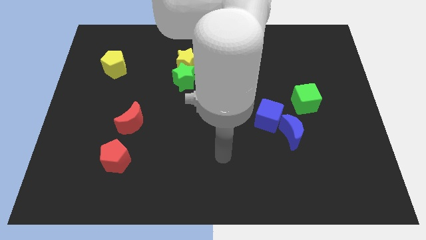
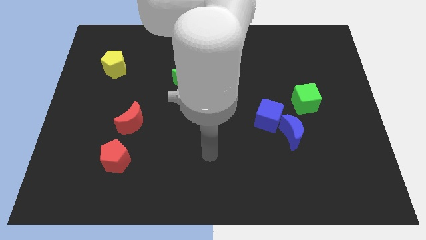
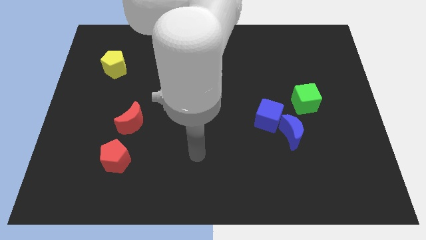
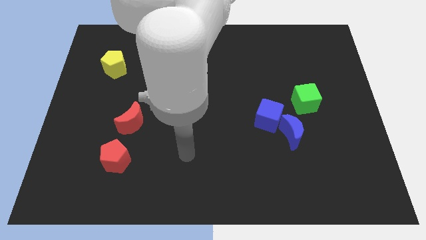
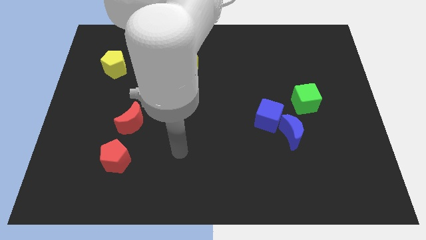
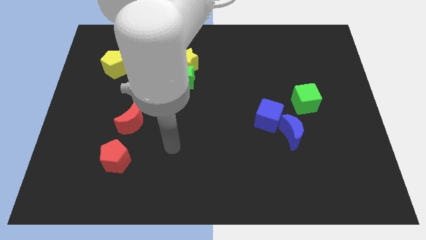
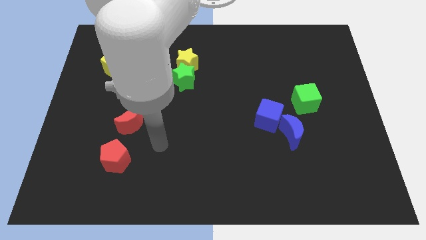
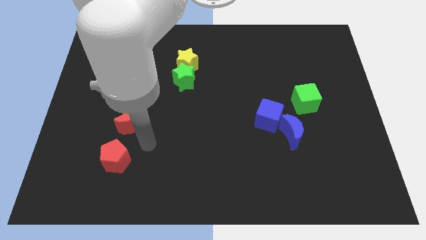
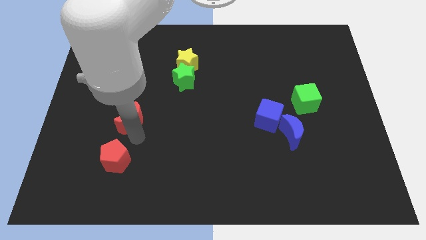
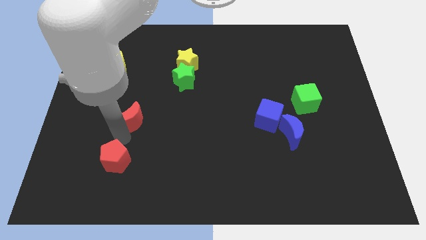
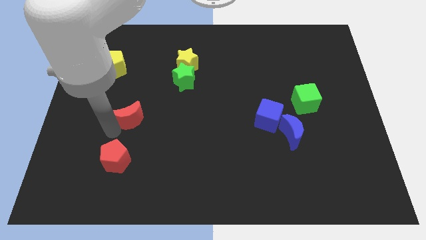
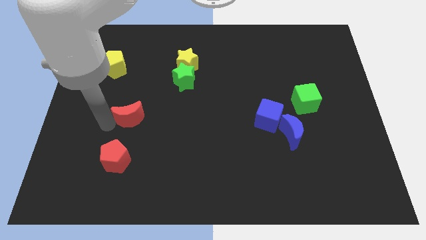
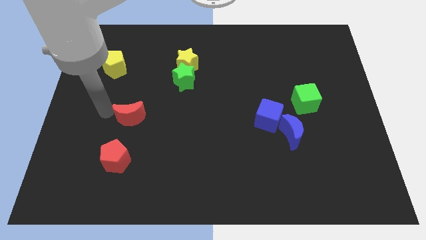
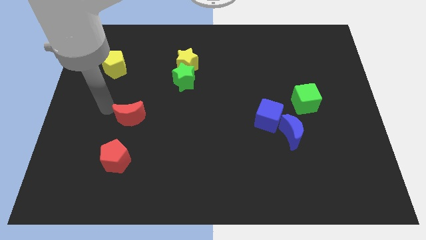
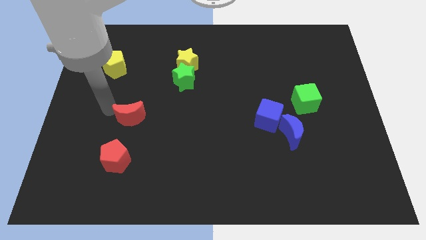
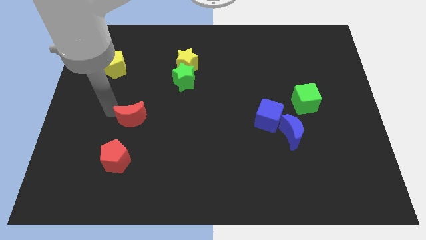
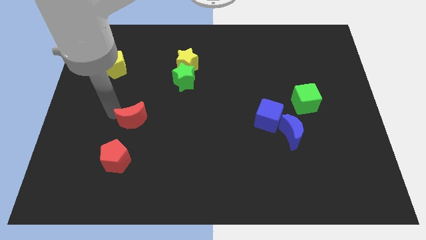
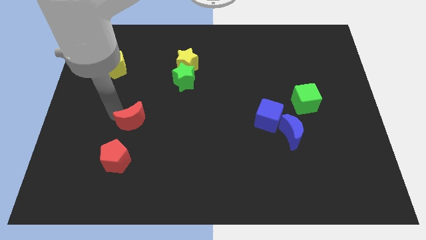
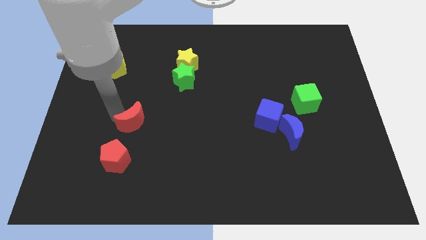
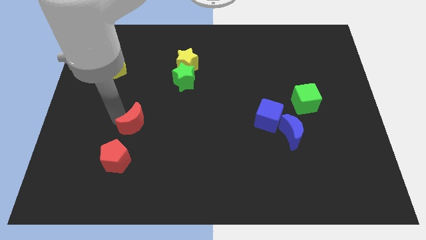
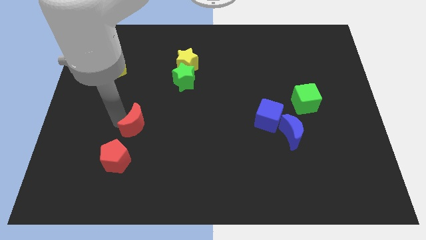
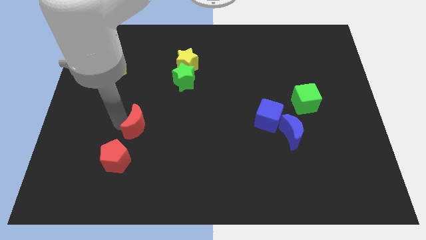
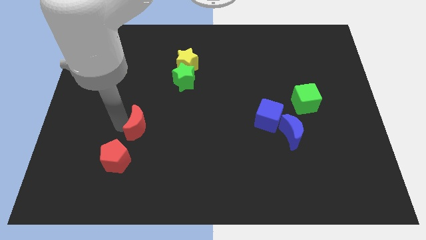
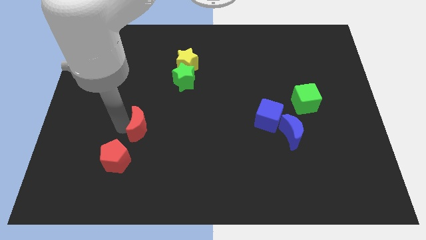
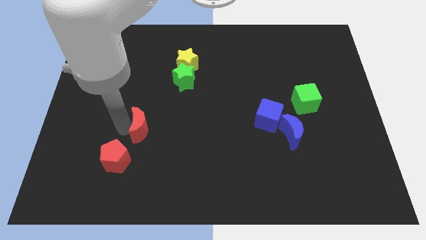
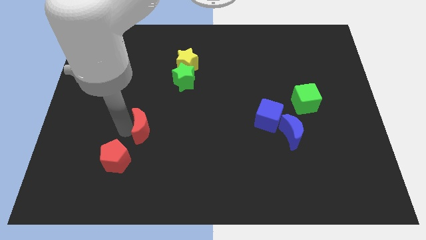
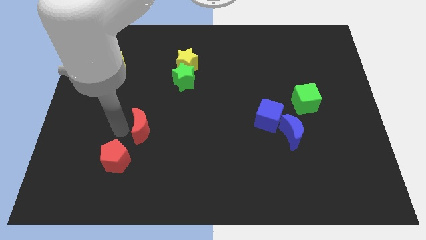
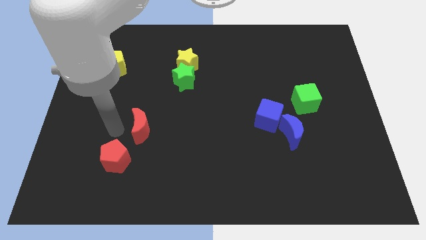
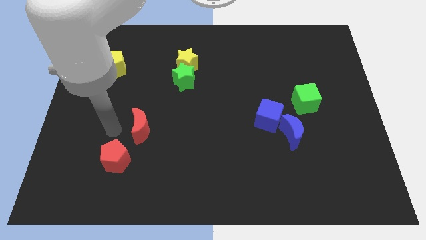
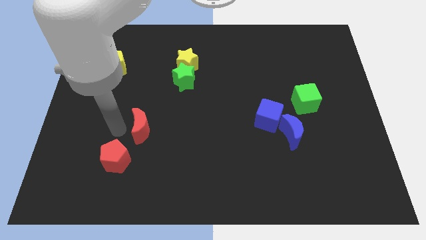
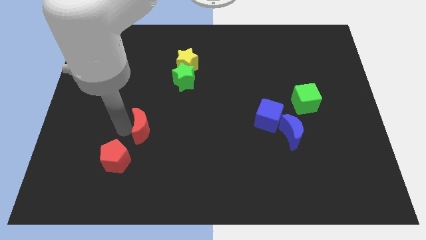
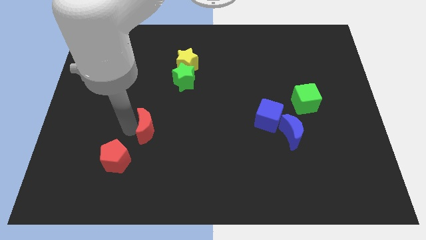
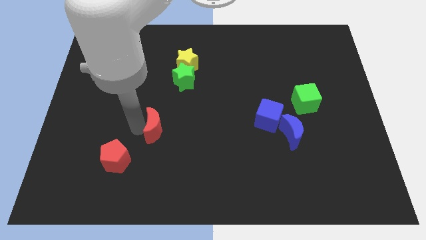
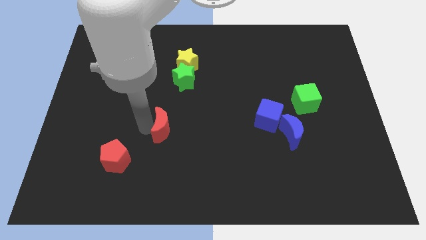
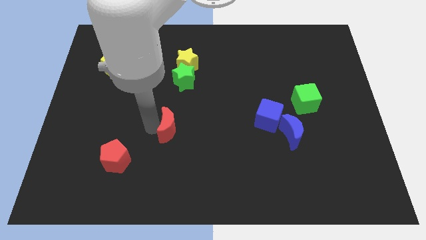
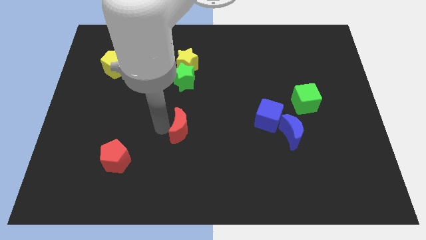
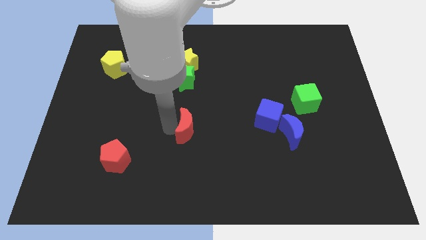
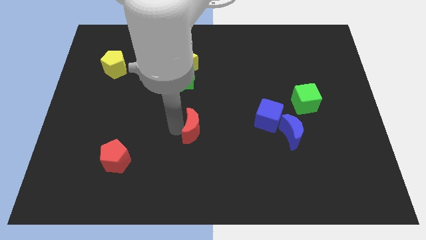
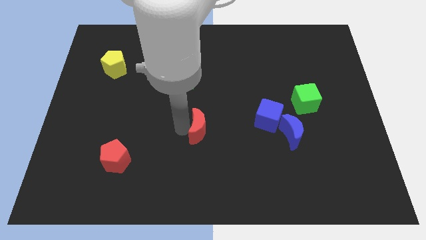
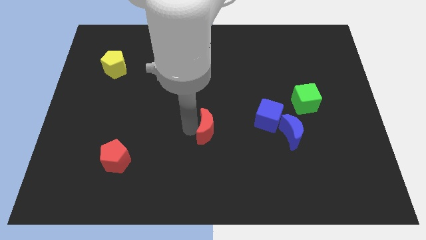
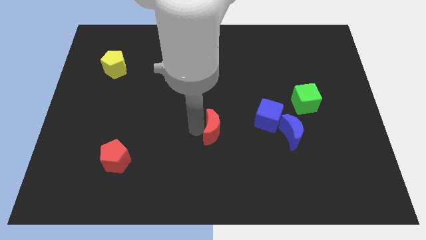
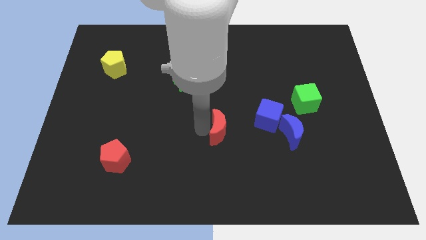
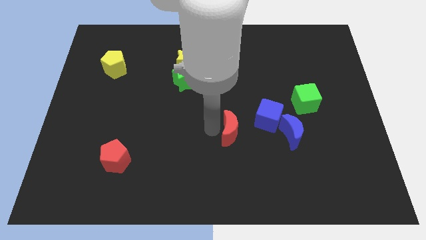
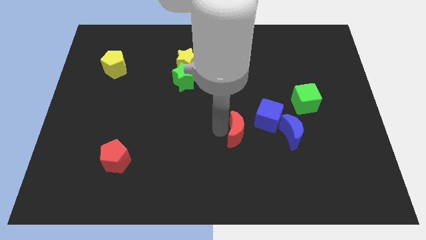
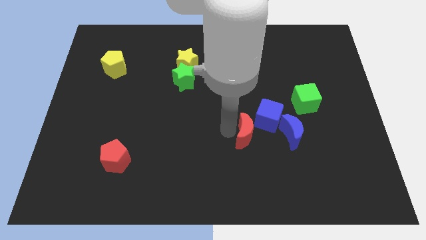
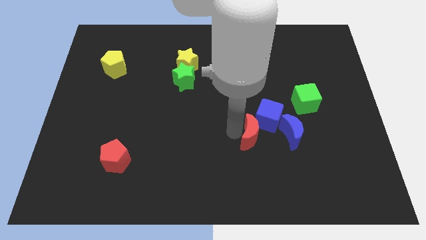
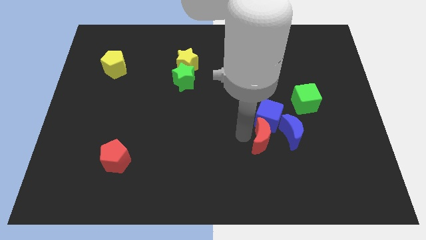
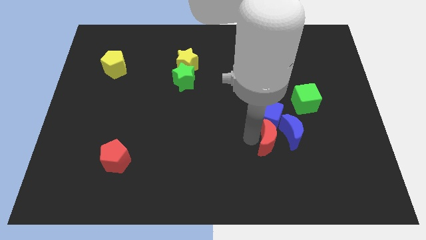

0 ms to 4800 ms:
push the red moon towards the blue moon

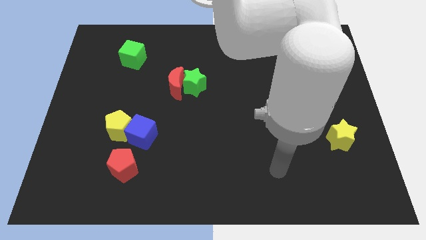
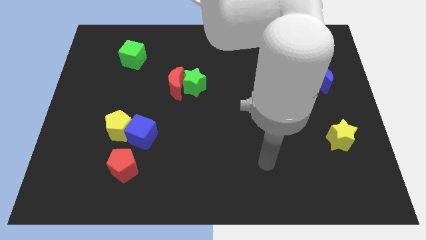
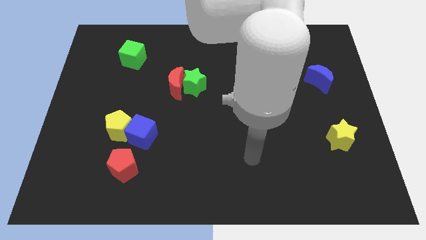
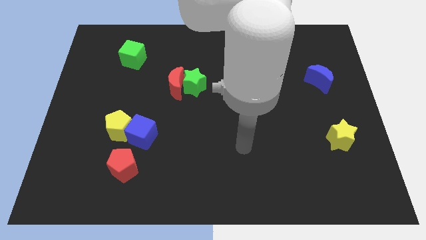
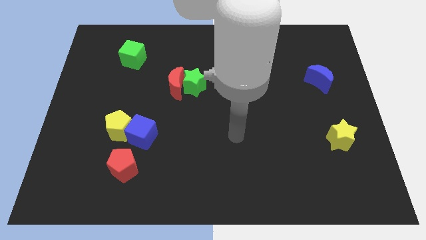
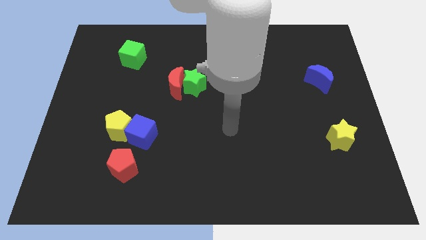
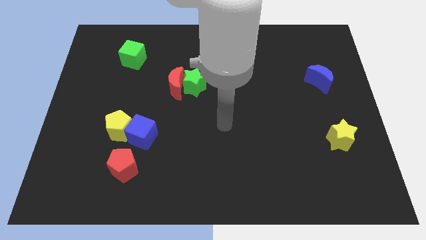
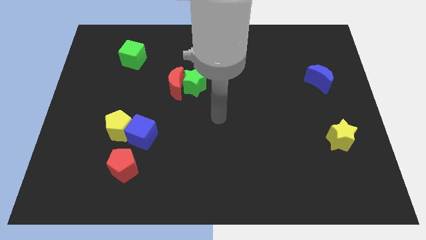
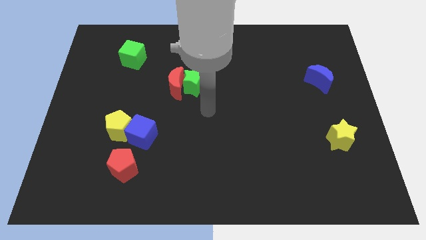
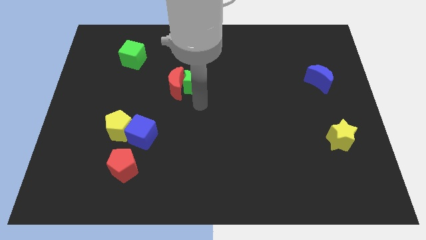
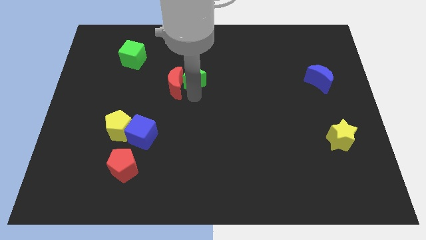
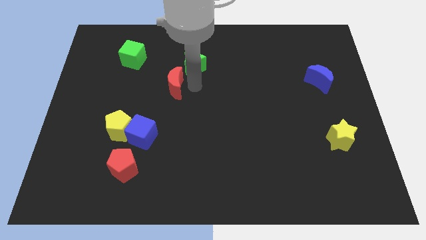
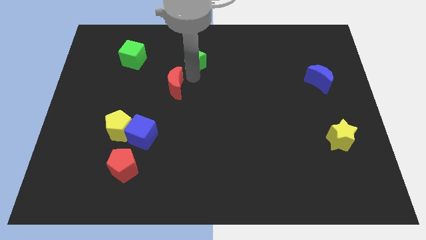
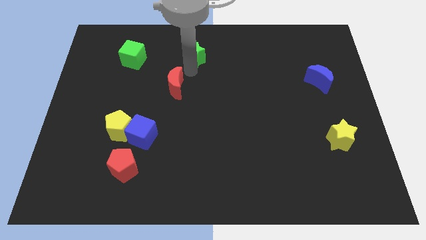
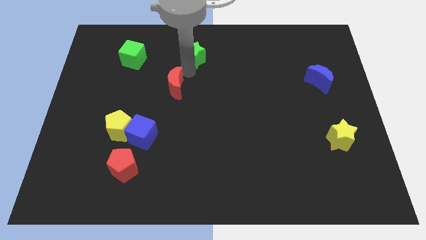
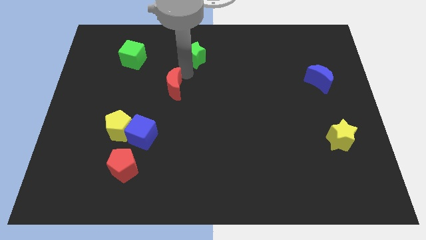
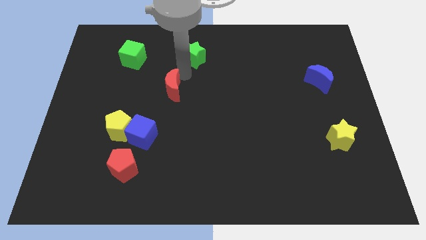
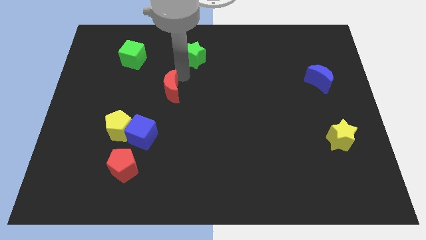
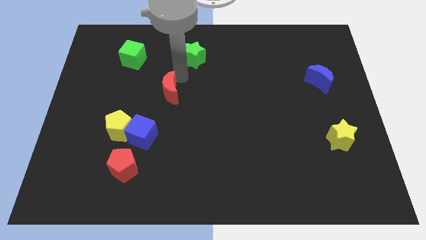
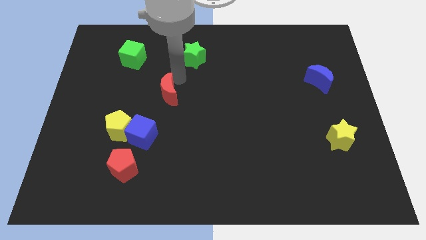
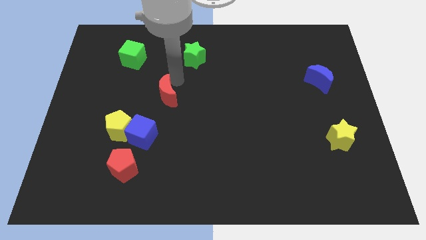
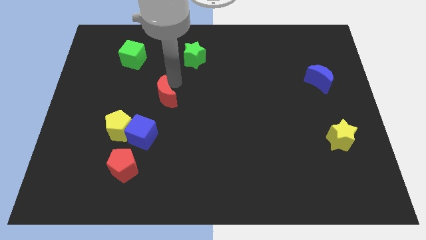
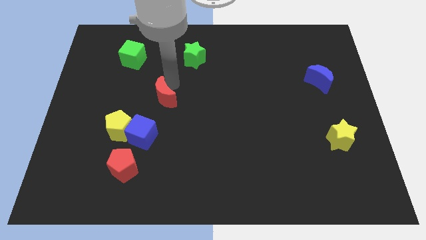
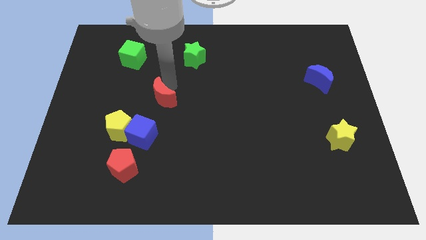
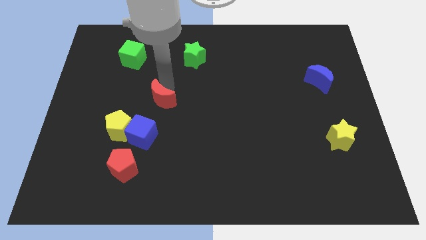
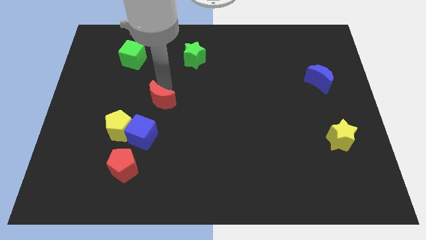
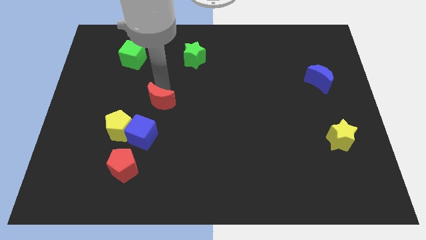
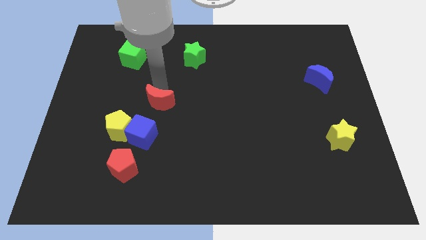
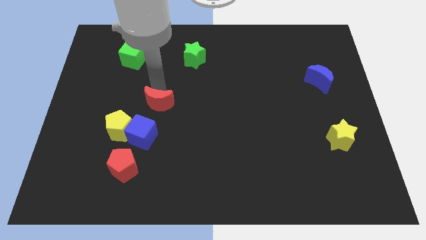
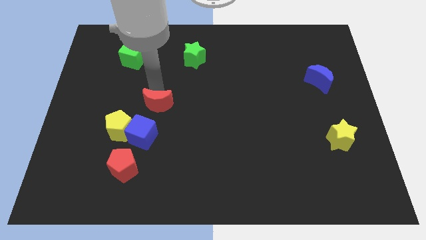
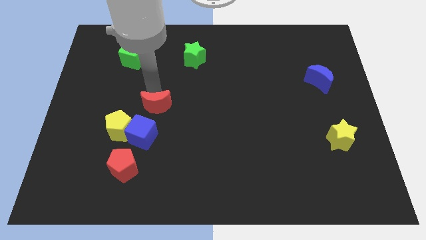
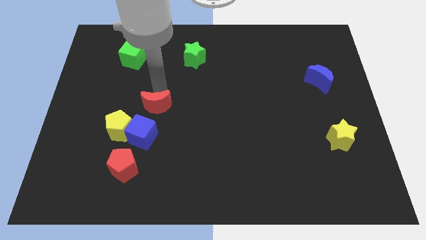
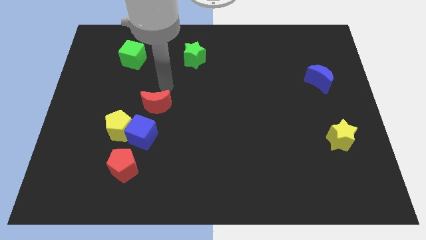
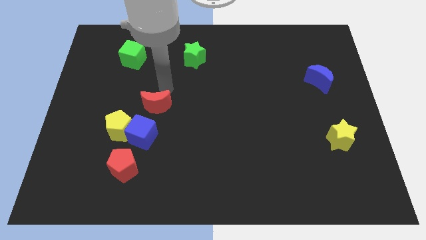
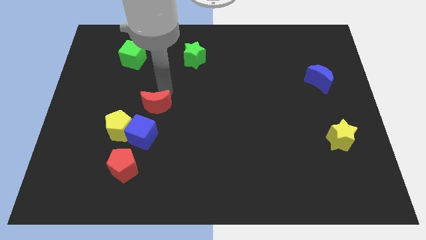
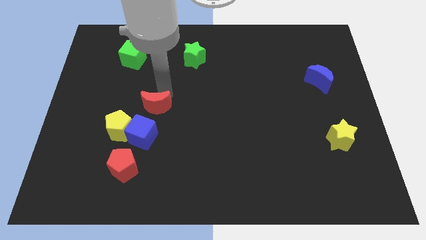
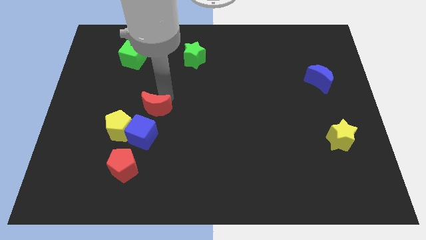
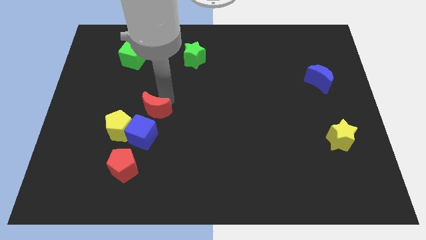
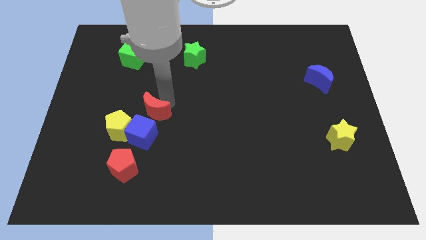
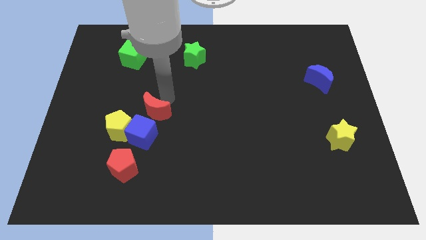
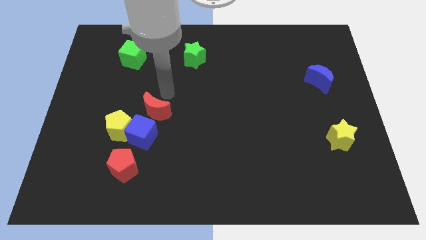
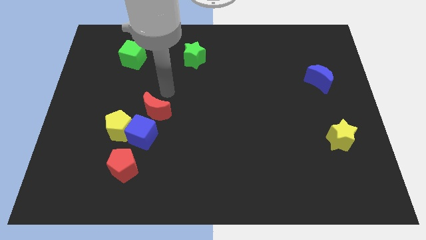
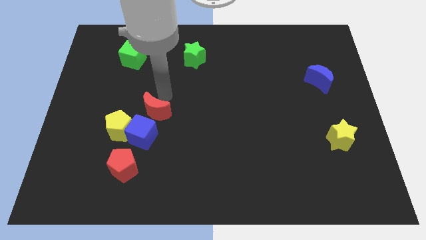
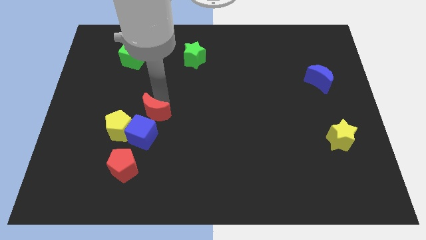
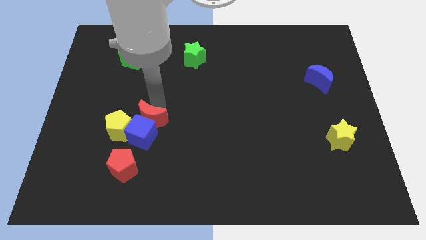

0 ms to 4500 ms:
move the red moon to the blue cube
